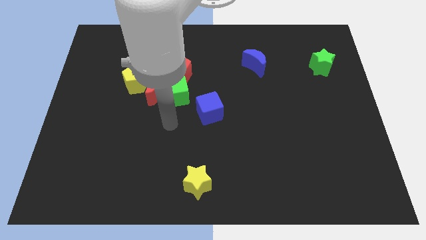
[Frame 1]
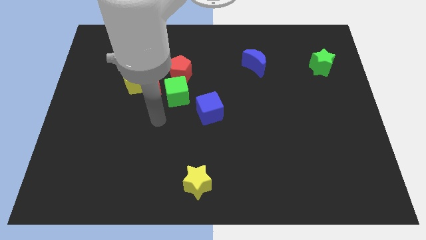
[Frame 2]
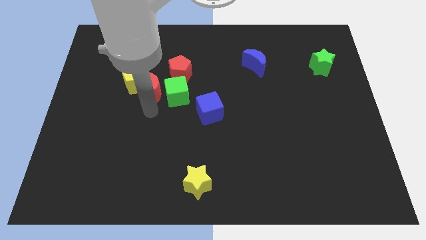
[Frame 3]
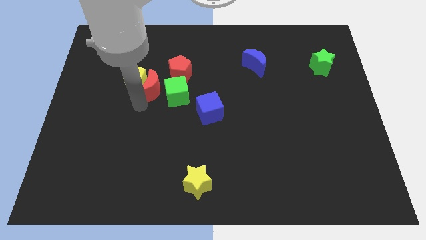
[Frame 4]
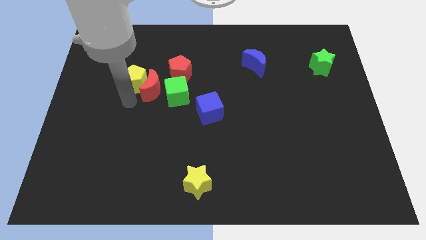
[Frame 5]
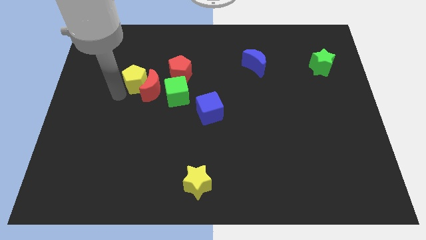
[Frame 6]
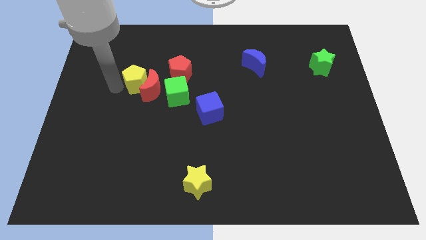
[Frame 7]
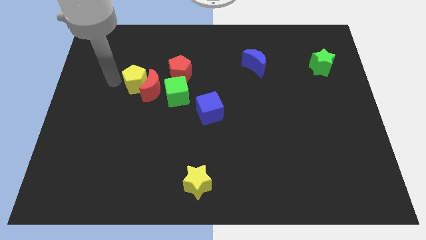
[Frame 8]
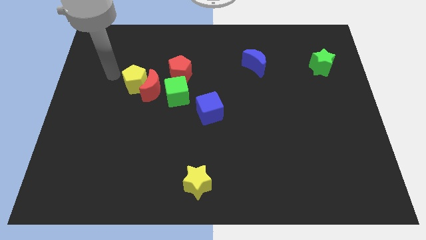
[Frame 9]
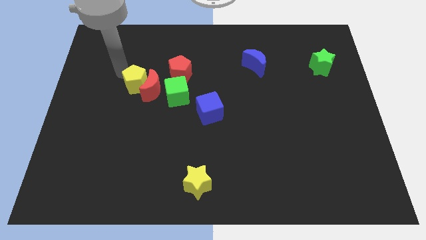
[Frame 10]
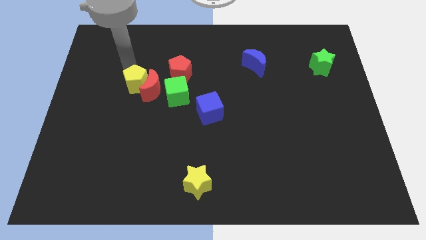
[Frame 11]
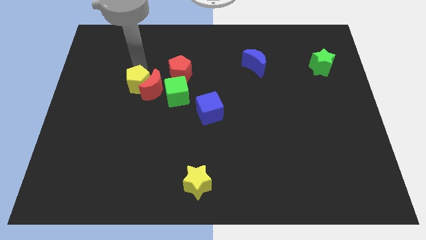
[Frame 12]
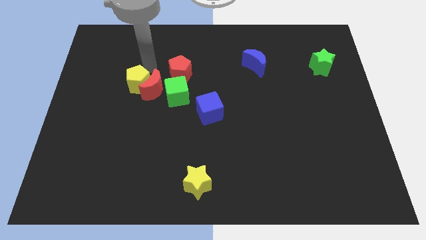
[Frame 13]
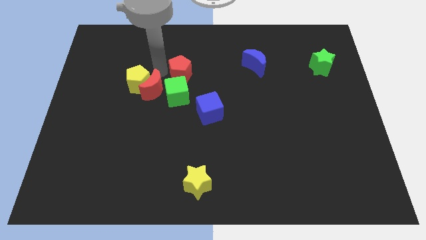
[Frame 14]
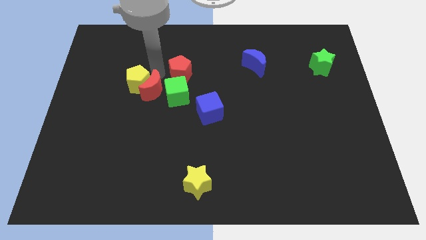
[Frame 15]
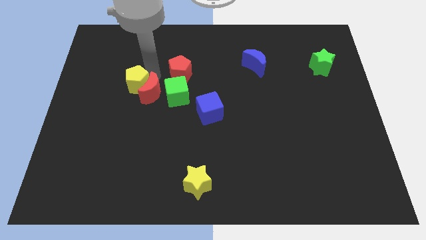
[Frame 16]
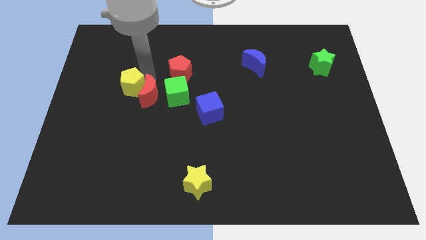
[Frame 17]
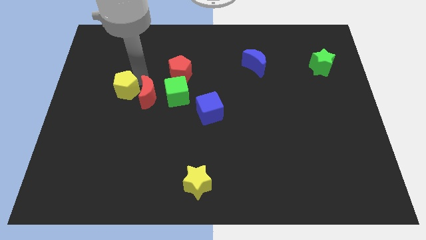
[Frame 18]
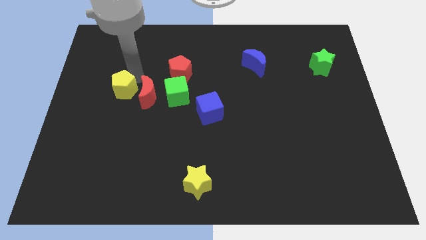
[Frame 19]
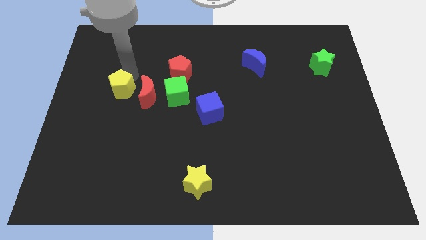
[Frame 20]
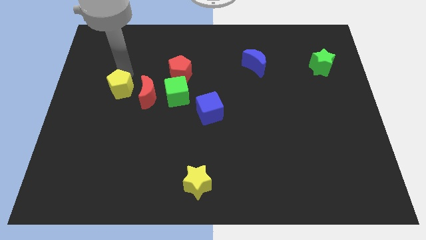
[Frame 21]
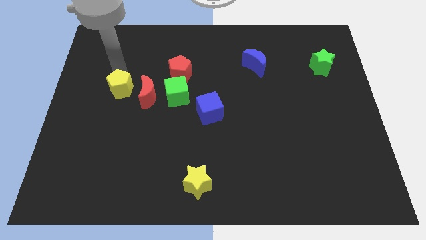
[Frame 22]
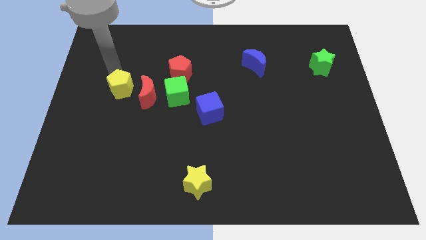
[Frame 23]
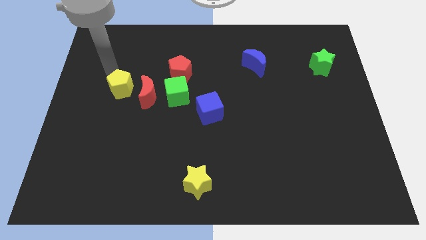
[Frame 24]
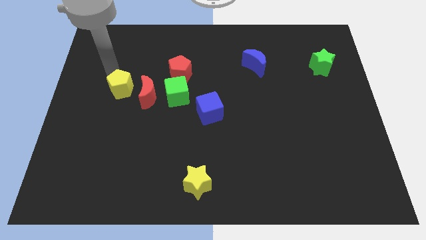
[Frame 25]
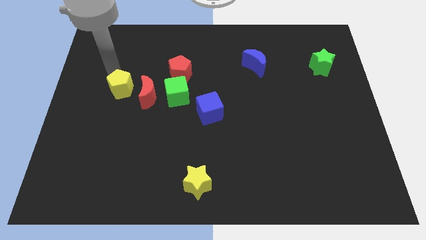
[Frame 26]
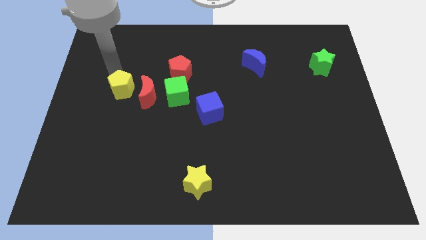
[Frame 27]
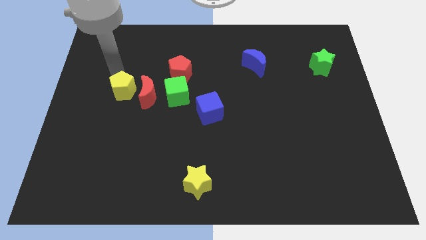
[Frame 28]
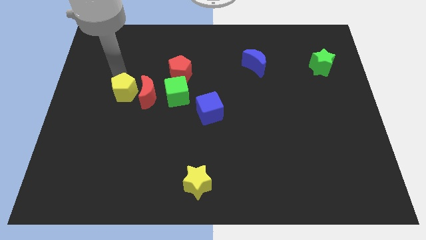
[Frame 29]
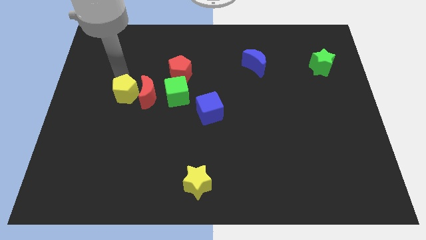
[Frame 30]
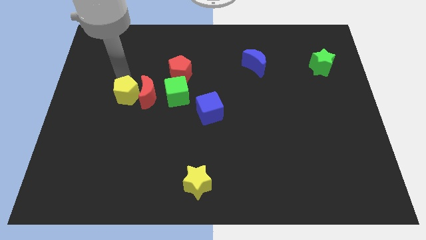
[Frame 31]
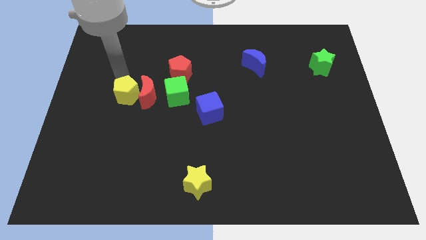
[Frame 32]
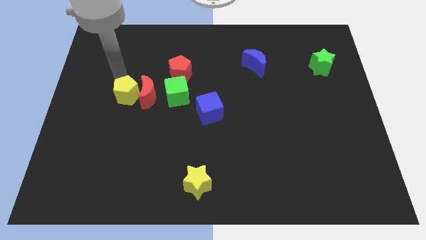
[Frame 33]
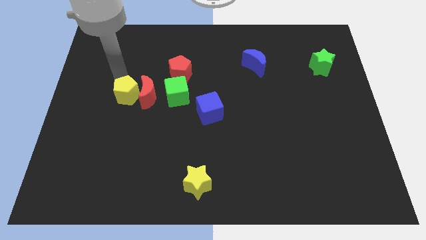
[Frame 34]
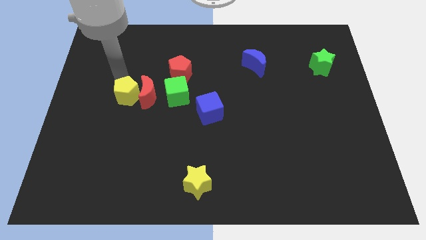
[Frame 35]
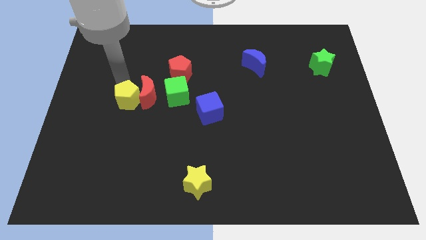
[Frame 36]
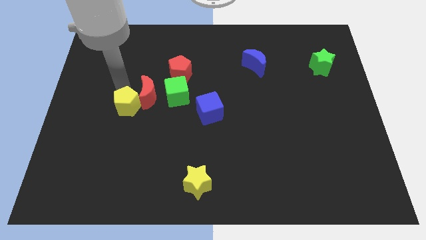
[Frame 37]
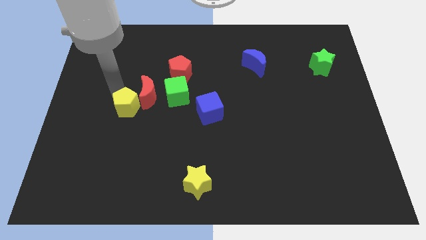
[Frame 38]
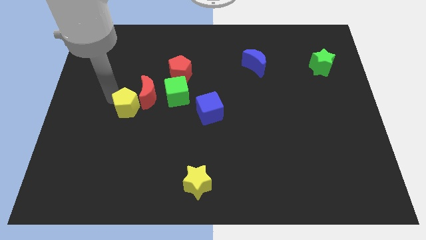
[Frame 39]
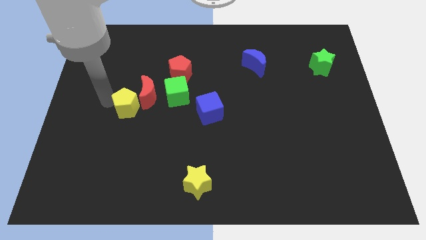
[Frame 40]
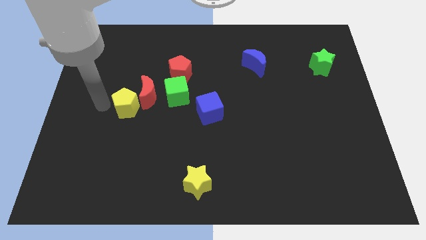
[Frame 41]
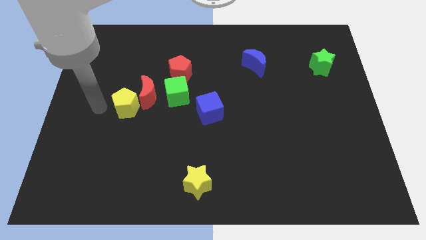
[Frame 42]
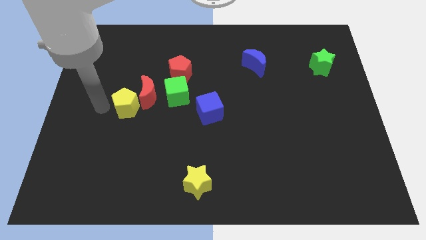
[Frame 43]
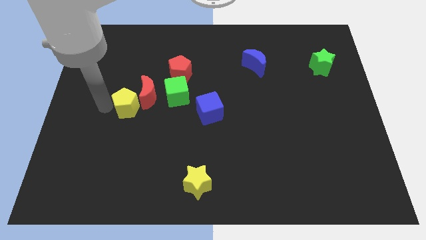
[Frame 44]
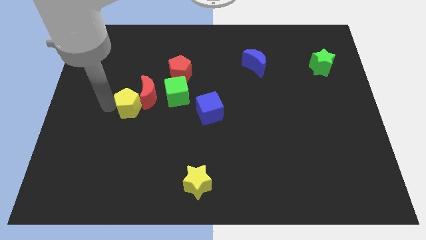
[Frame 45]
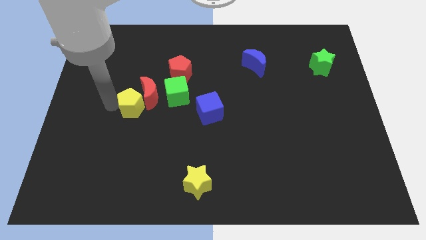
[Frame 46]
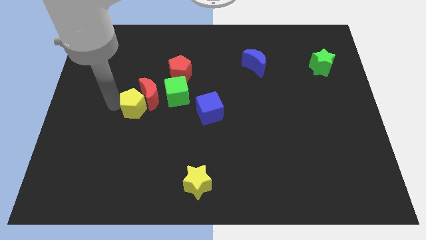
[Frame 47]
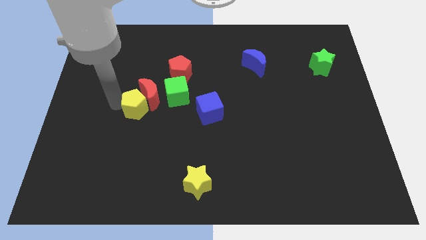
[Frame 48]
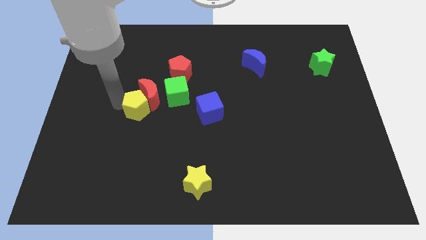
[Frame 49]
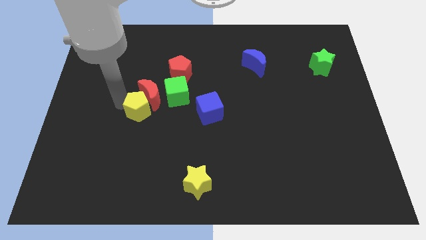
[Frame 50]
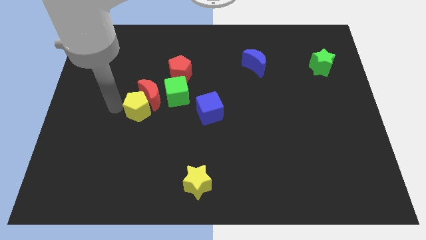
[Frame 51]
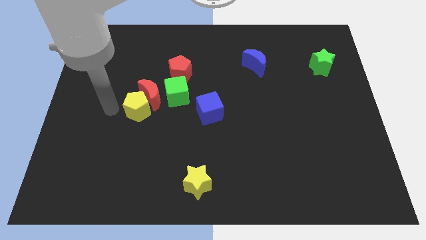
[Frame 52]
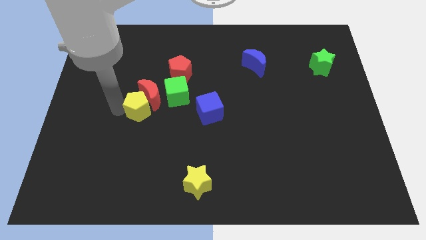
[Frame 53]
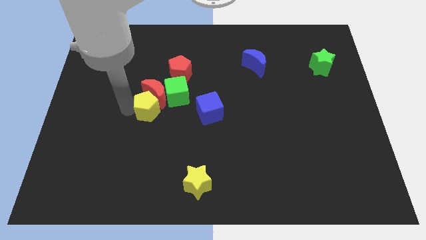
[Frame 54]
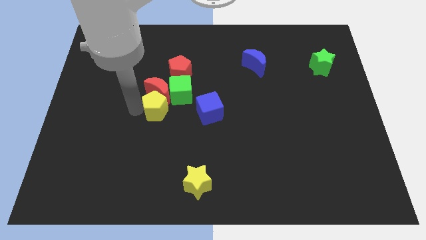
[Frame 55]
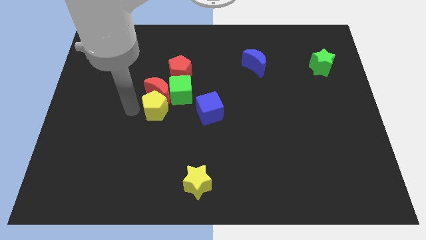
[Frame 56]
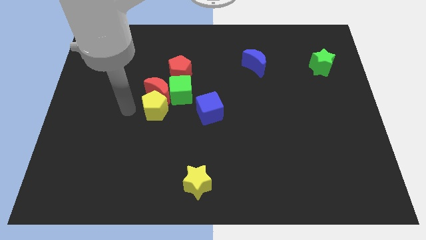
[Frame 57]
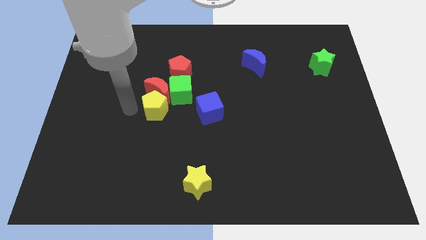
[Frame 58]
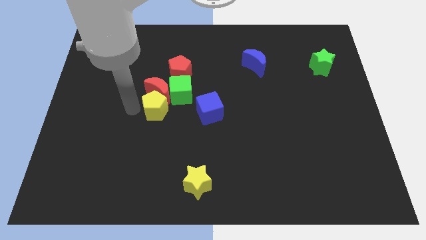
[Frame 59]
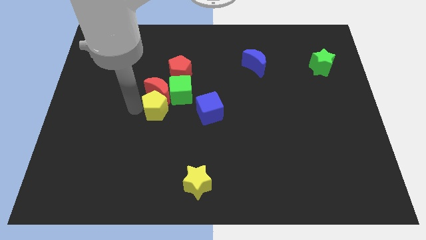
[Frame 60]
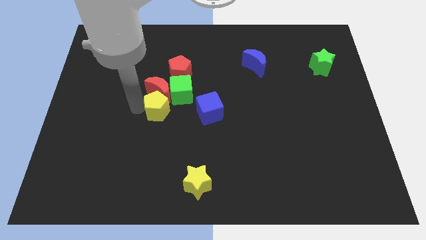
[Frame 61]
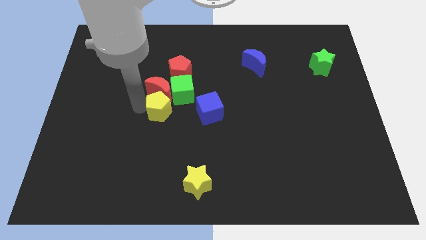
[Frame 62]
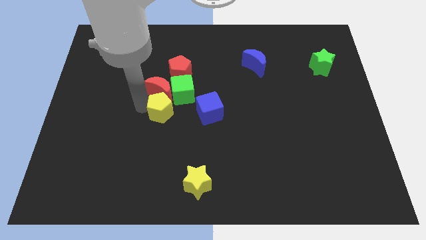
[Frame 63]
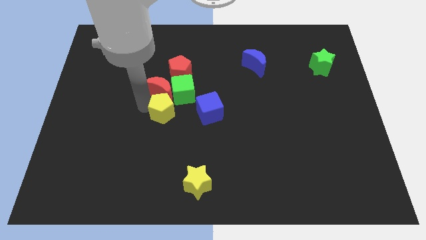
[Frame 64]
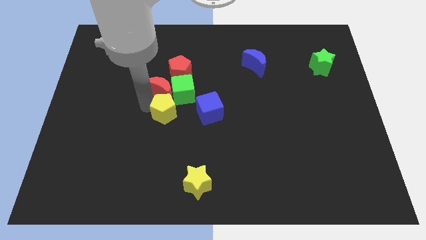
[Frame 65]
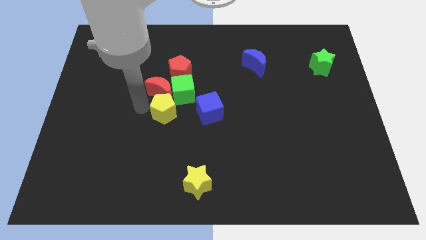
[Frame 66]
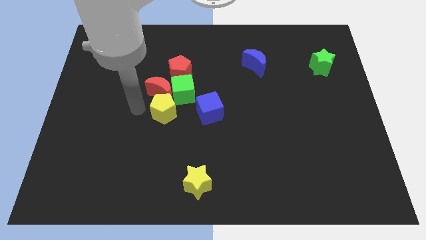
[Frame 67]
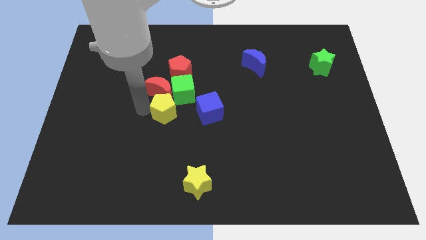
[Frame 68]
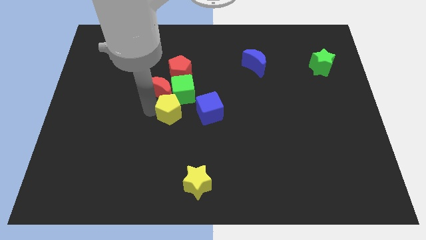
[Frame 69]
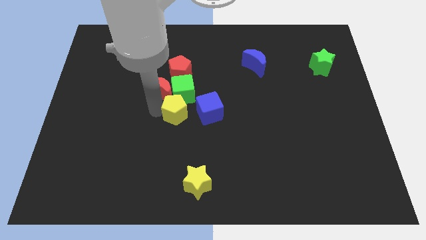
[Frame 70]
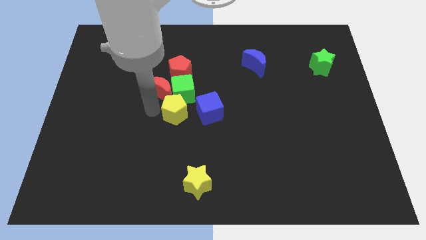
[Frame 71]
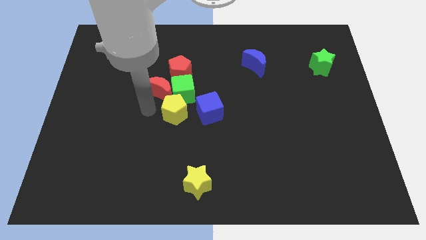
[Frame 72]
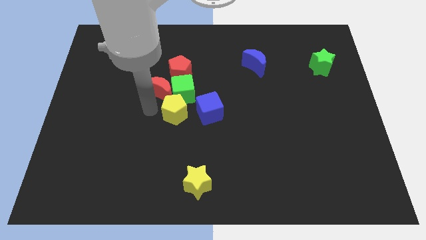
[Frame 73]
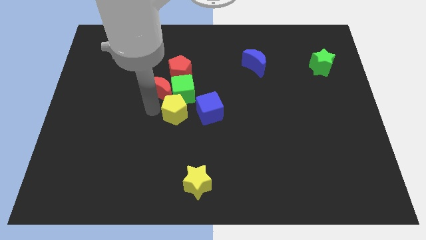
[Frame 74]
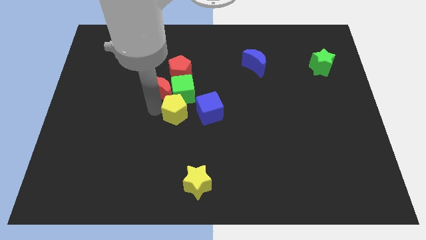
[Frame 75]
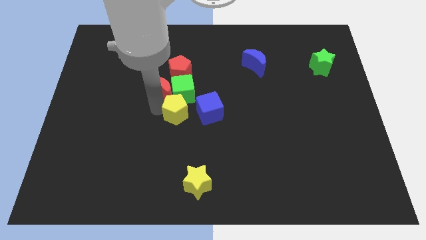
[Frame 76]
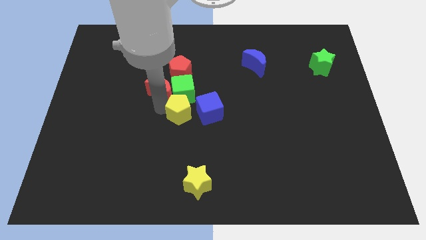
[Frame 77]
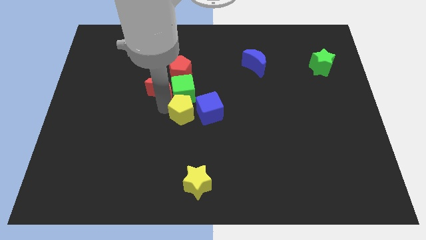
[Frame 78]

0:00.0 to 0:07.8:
push the yellow pentagon to the blue cube
